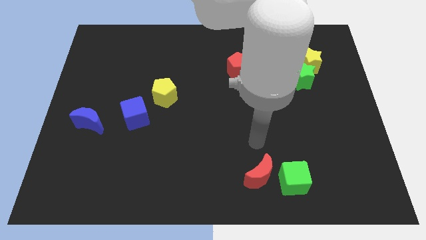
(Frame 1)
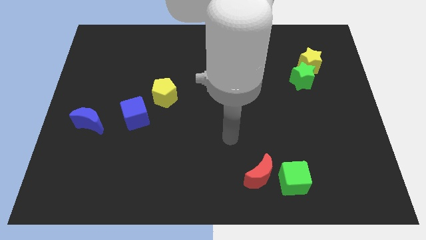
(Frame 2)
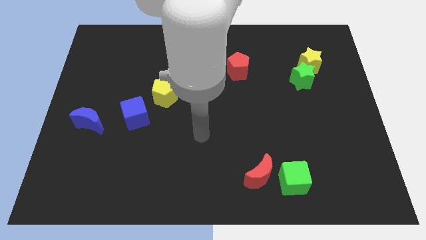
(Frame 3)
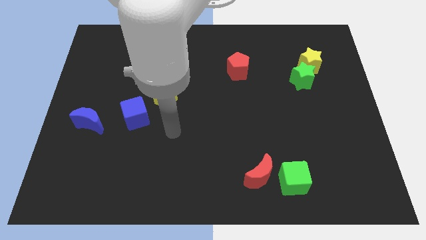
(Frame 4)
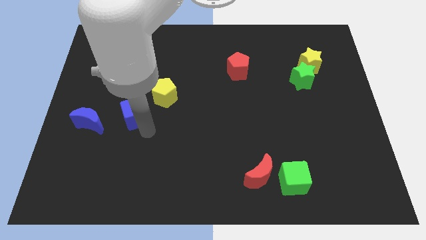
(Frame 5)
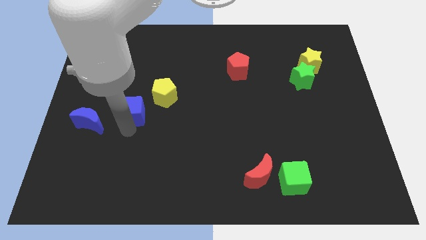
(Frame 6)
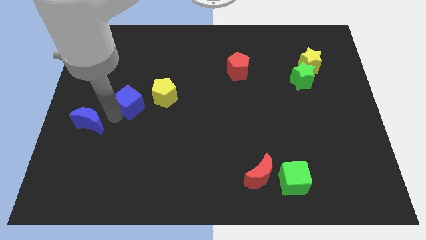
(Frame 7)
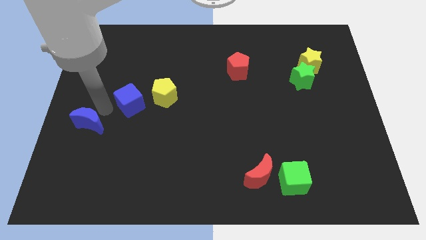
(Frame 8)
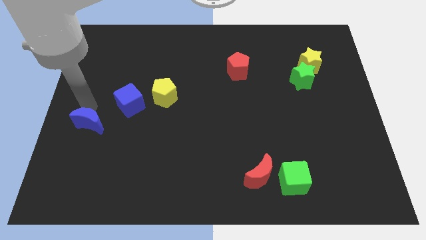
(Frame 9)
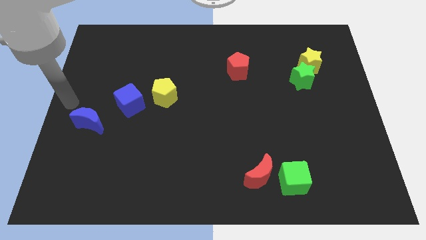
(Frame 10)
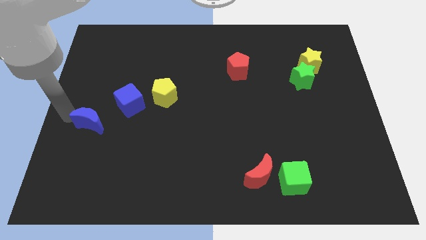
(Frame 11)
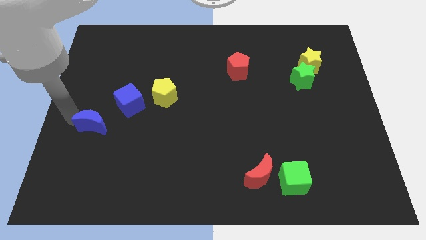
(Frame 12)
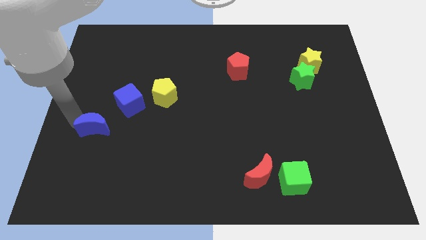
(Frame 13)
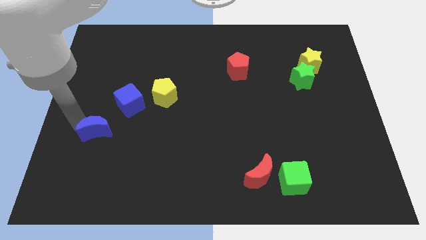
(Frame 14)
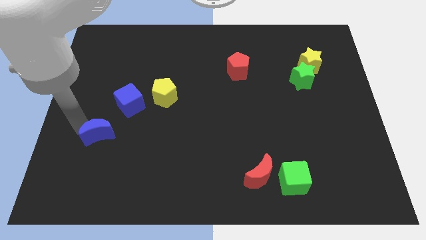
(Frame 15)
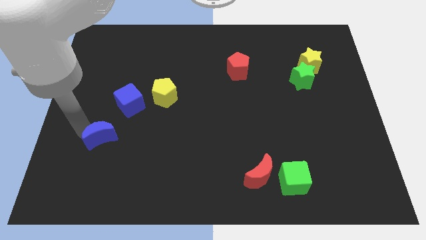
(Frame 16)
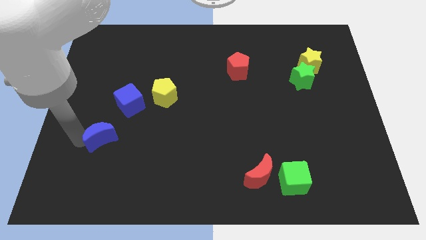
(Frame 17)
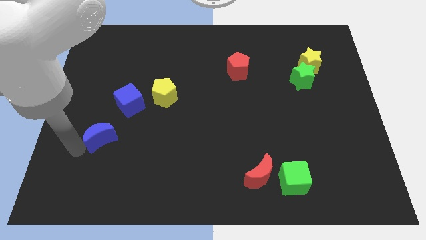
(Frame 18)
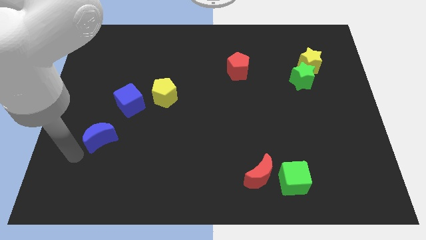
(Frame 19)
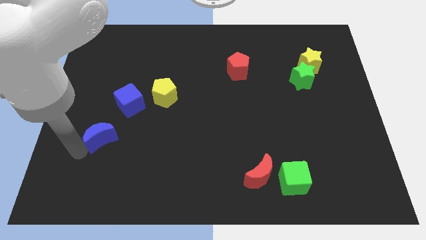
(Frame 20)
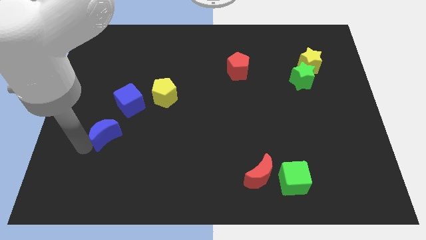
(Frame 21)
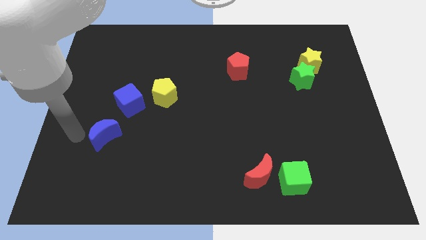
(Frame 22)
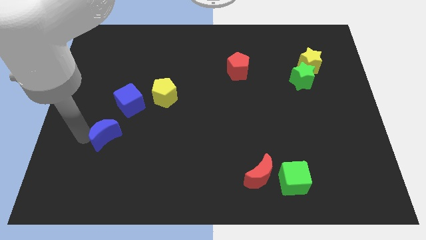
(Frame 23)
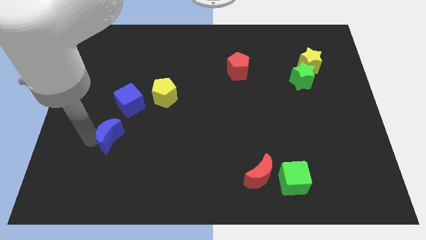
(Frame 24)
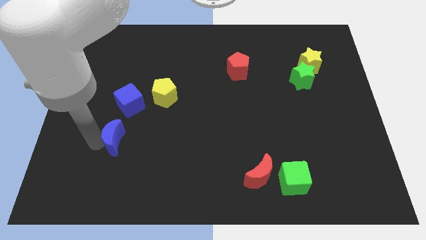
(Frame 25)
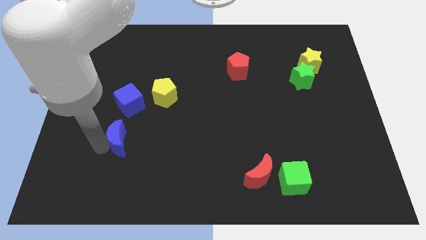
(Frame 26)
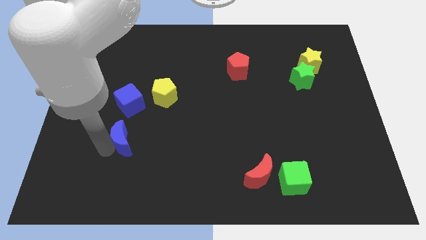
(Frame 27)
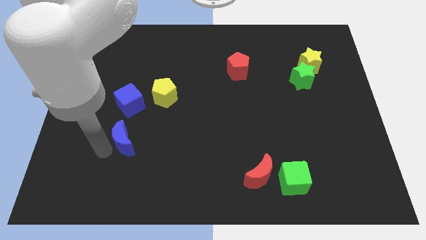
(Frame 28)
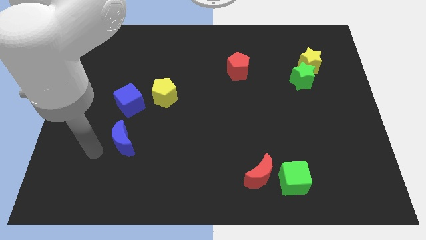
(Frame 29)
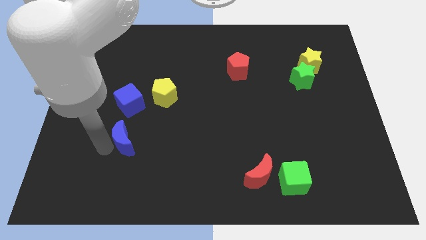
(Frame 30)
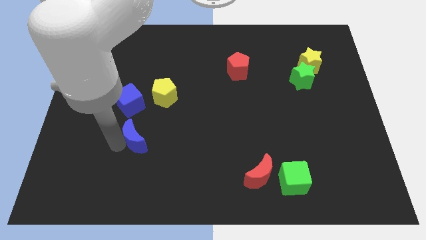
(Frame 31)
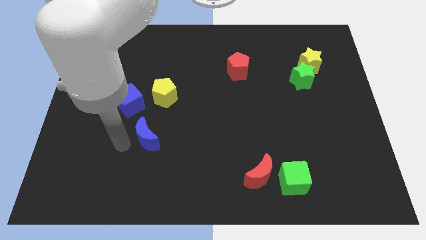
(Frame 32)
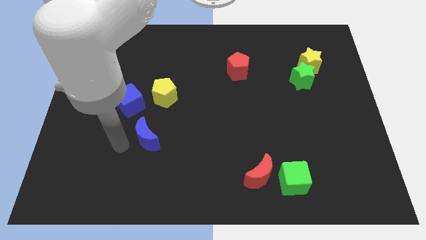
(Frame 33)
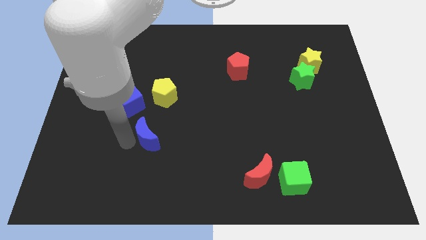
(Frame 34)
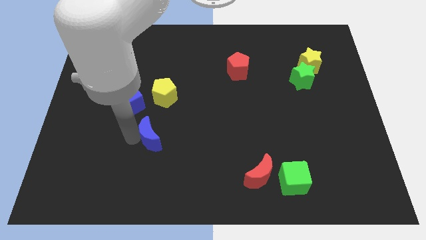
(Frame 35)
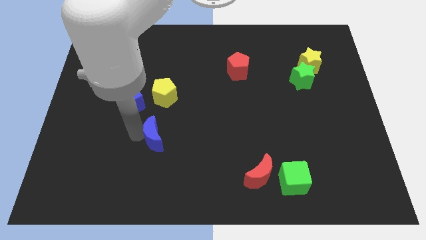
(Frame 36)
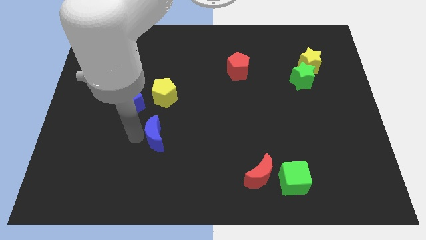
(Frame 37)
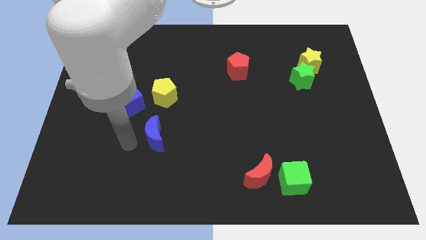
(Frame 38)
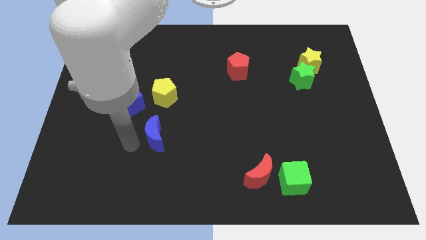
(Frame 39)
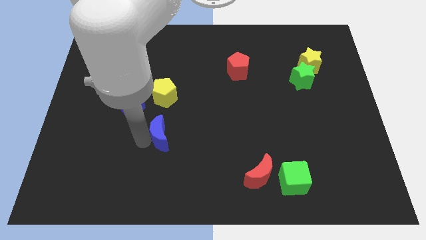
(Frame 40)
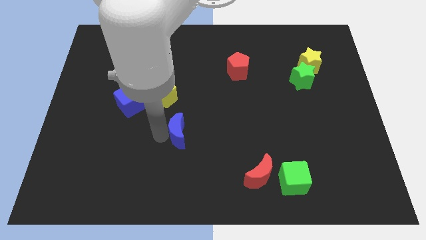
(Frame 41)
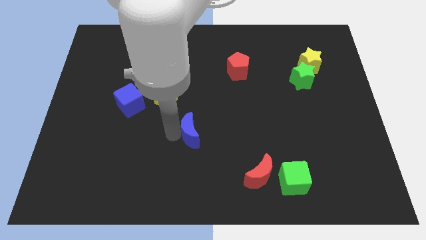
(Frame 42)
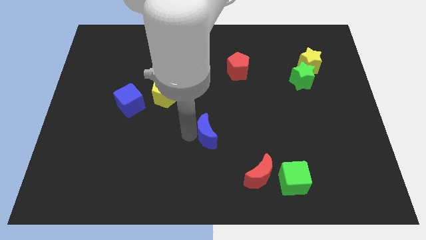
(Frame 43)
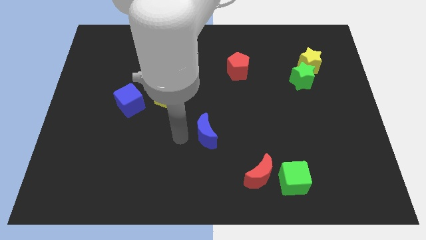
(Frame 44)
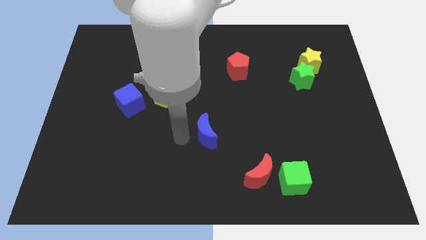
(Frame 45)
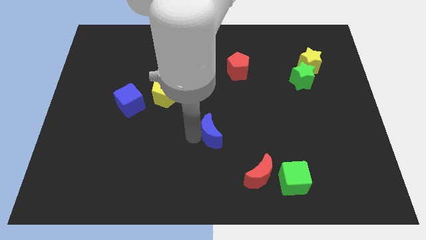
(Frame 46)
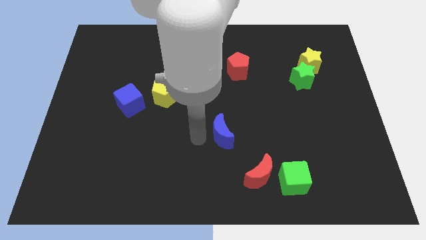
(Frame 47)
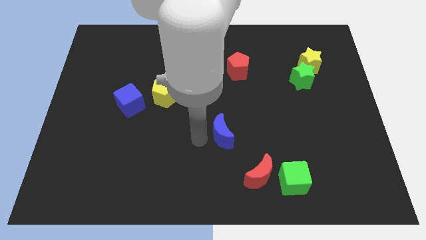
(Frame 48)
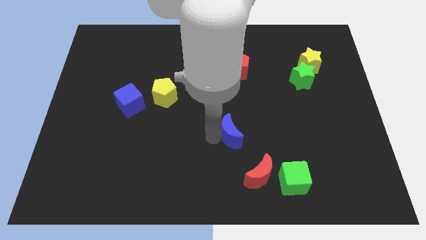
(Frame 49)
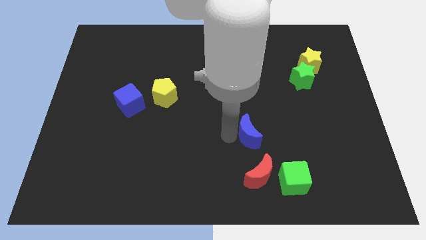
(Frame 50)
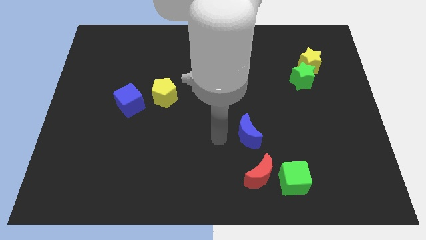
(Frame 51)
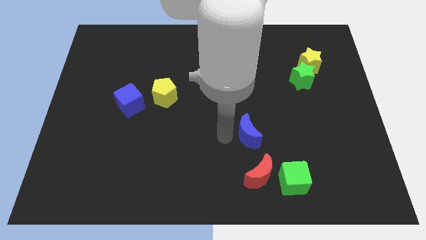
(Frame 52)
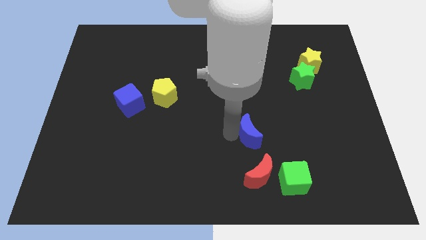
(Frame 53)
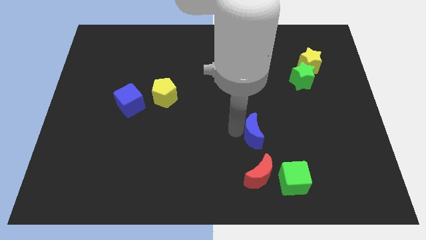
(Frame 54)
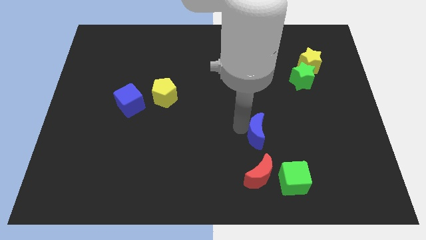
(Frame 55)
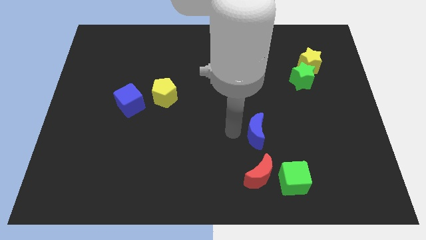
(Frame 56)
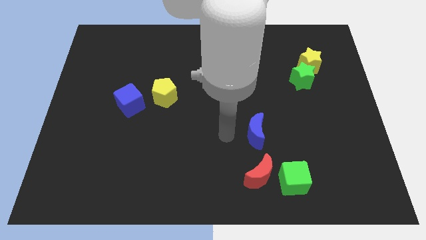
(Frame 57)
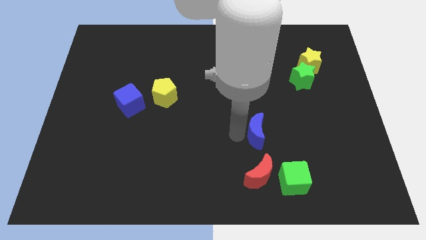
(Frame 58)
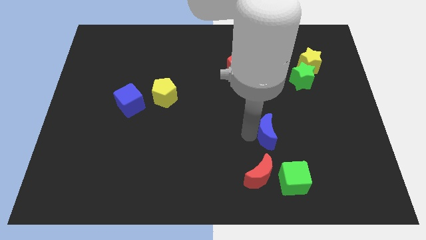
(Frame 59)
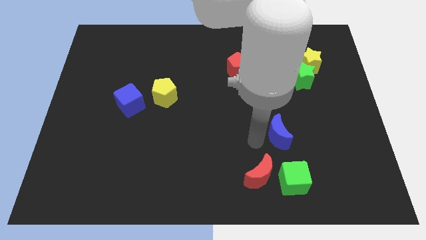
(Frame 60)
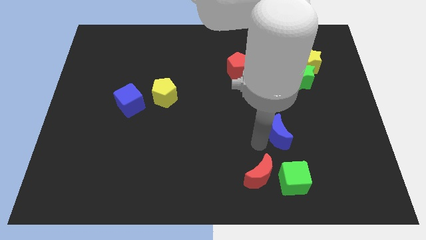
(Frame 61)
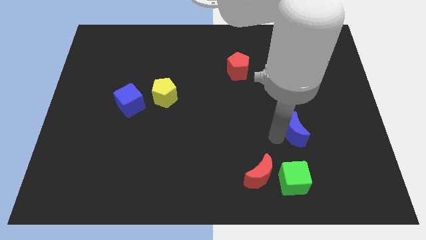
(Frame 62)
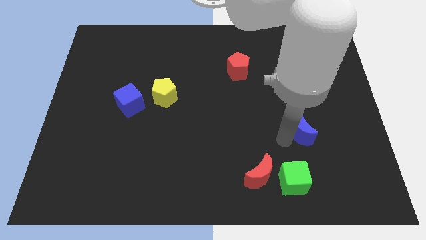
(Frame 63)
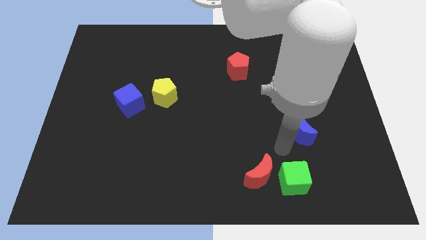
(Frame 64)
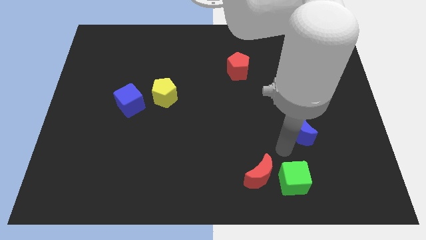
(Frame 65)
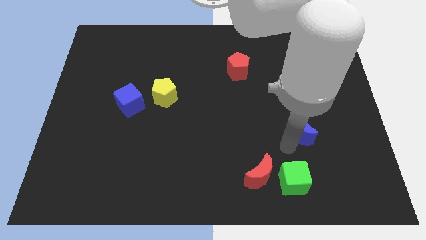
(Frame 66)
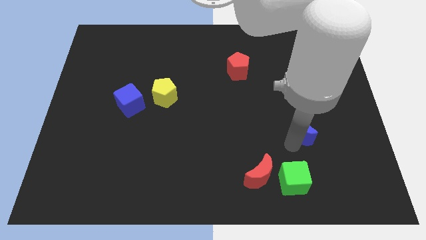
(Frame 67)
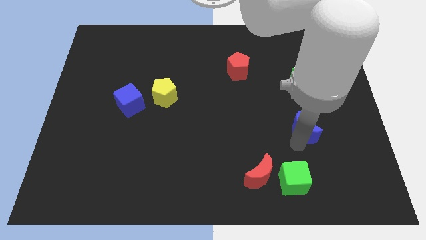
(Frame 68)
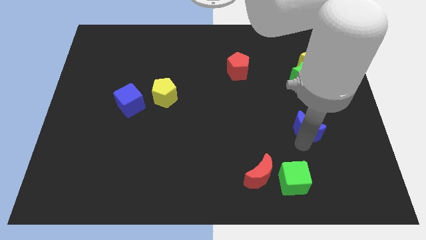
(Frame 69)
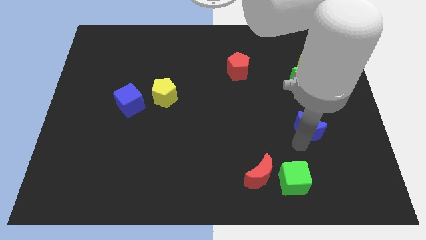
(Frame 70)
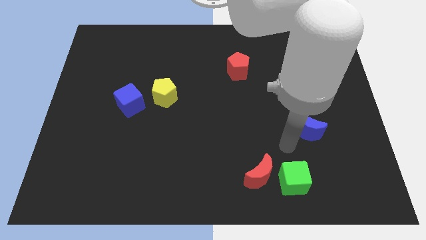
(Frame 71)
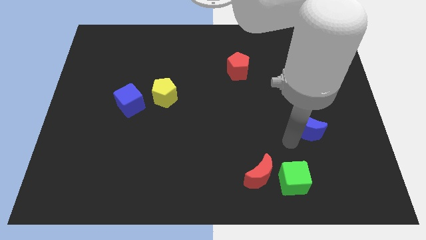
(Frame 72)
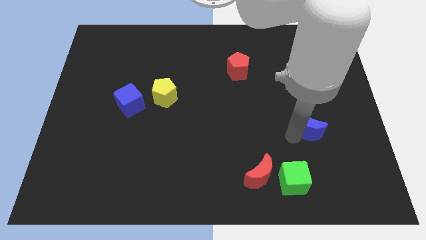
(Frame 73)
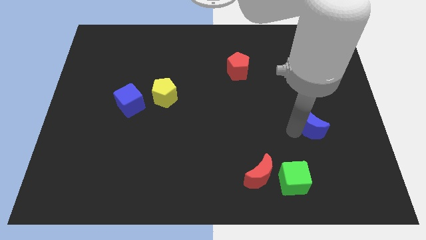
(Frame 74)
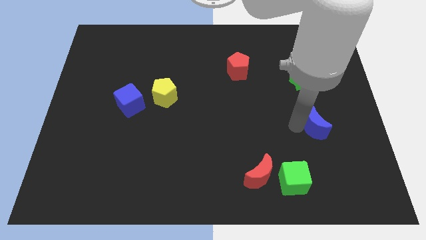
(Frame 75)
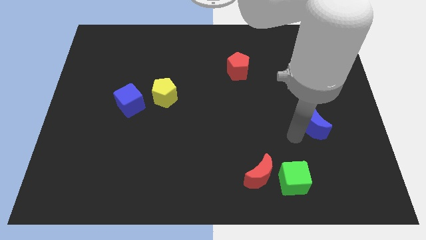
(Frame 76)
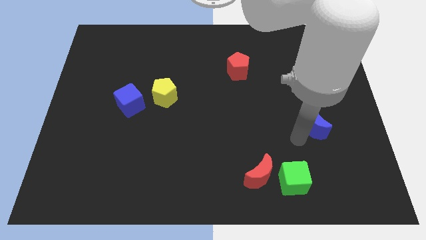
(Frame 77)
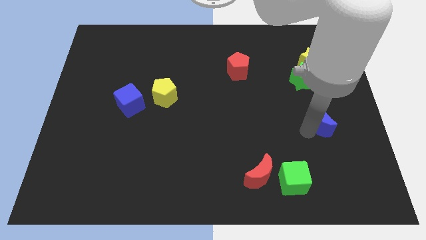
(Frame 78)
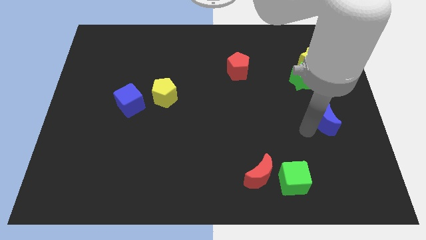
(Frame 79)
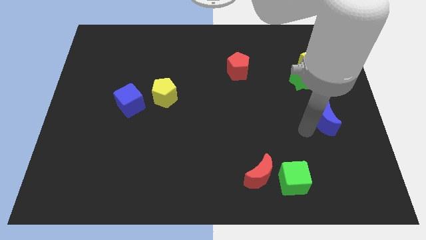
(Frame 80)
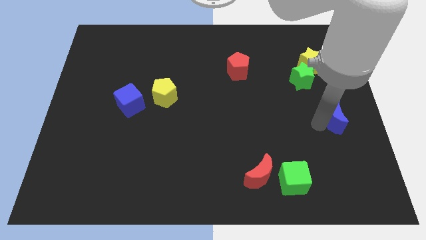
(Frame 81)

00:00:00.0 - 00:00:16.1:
slide the blue moon to the center right
